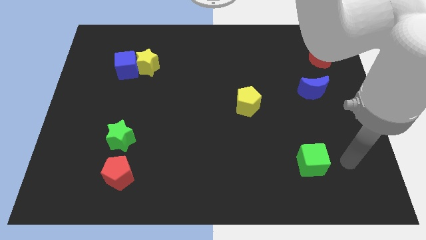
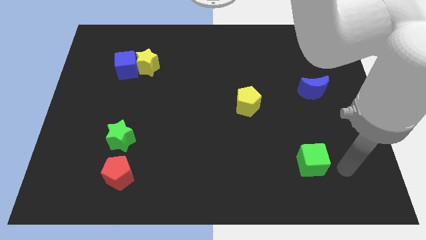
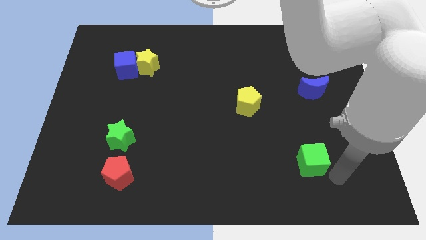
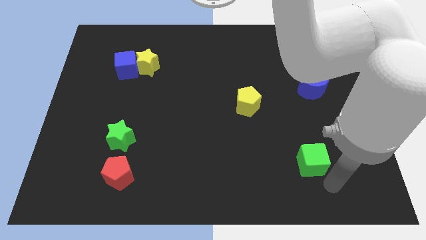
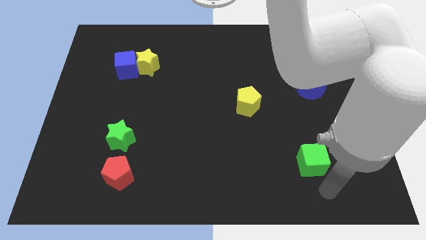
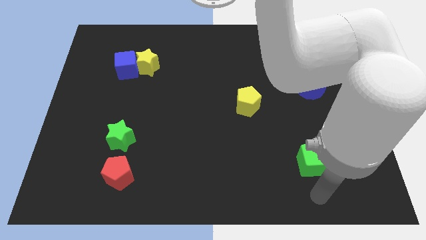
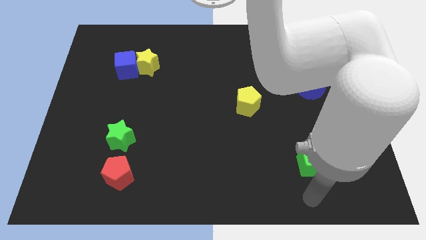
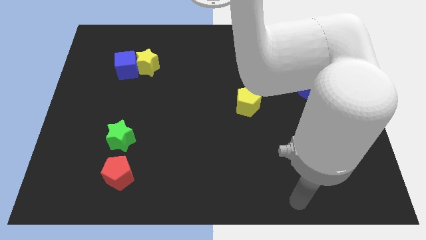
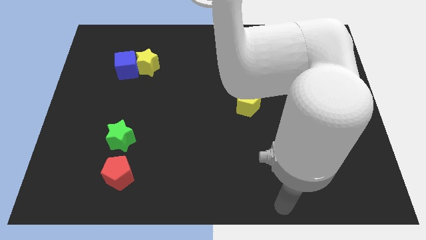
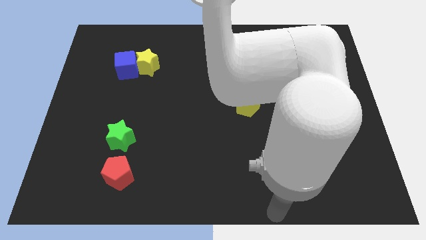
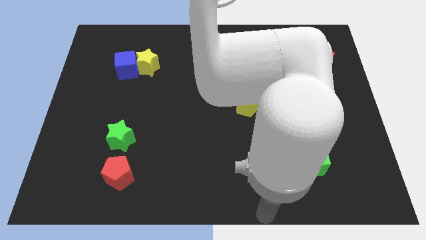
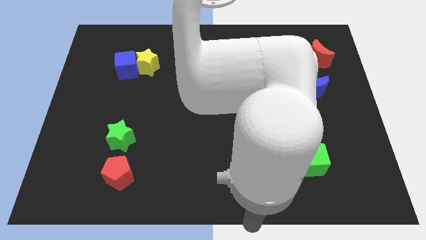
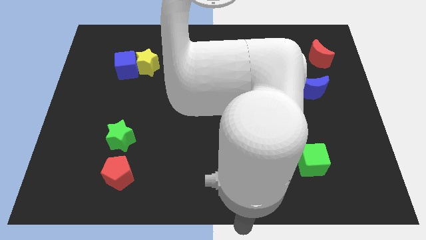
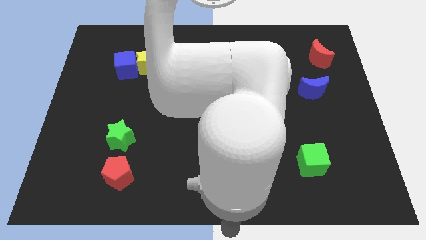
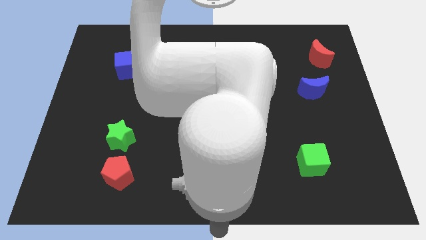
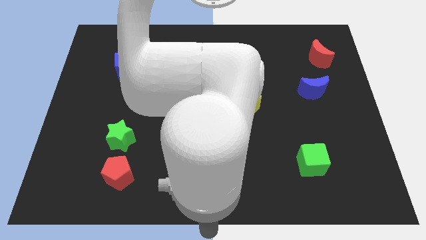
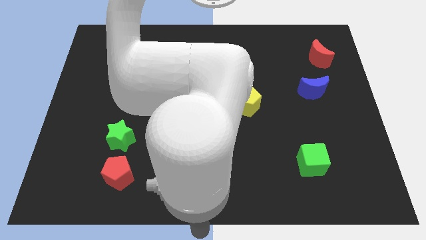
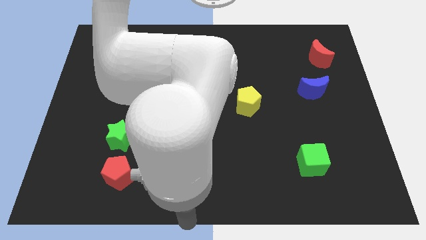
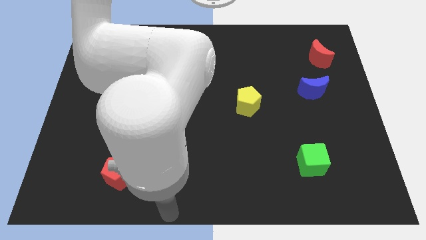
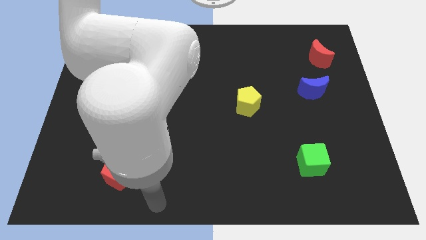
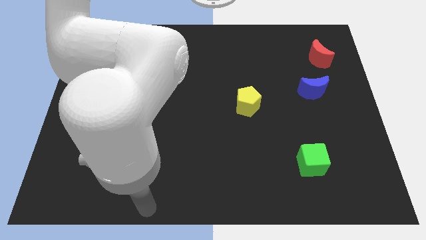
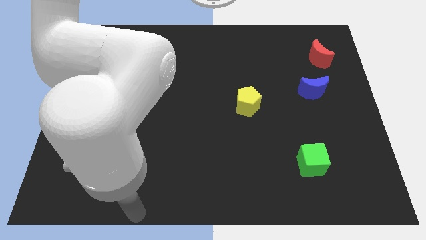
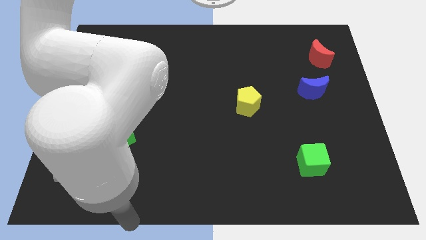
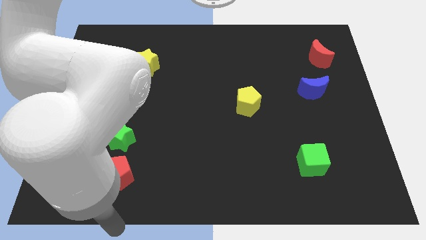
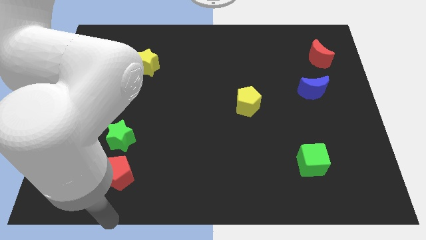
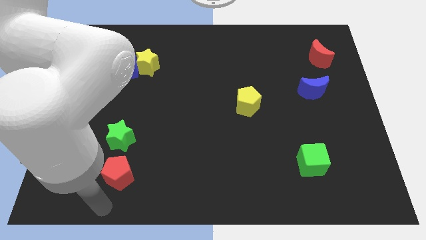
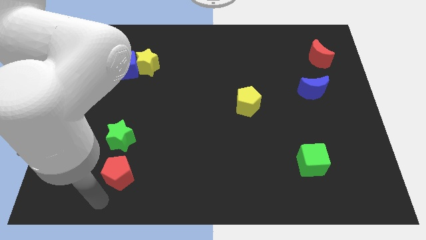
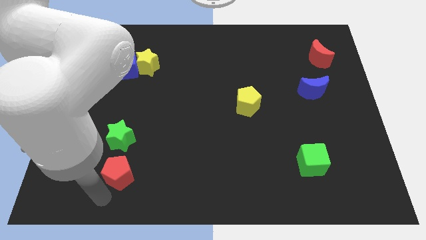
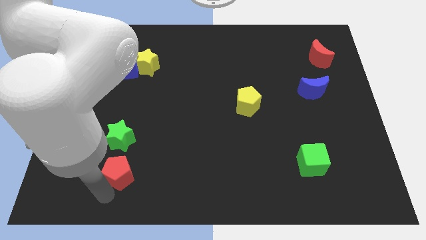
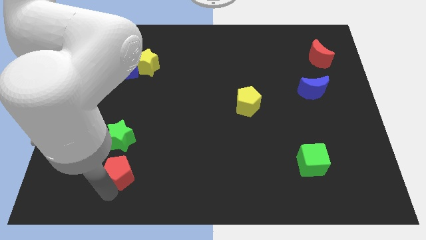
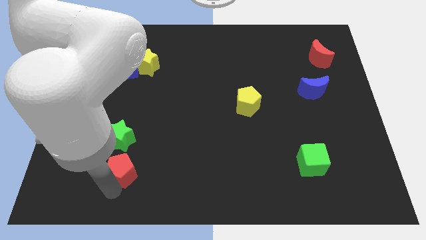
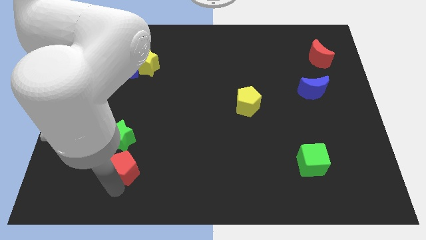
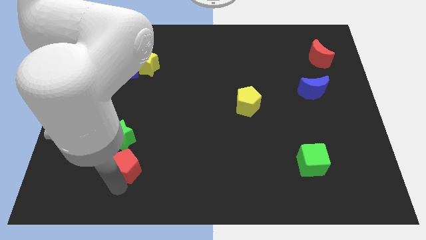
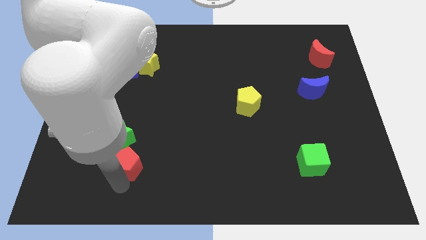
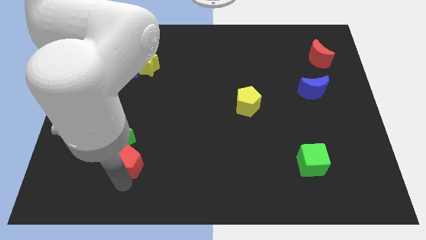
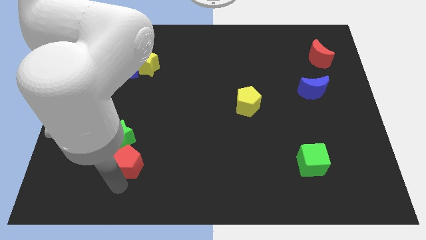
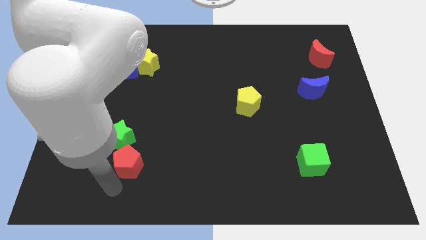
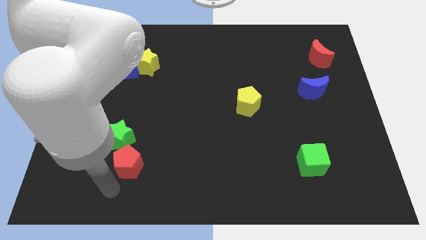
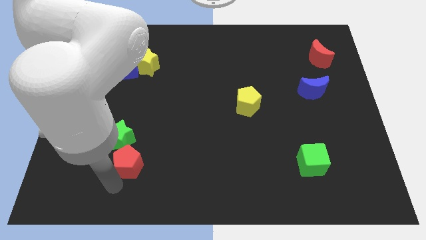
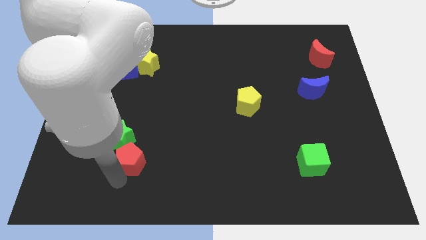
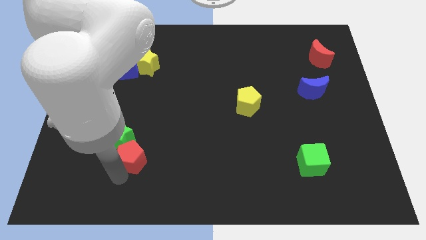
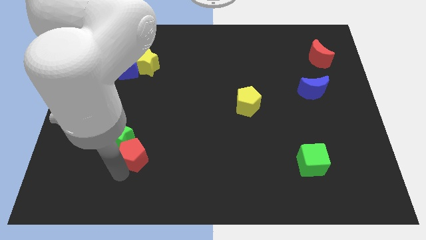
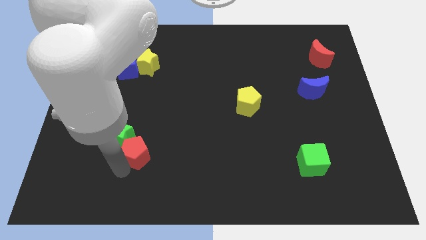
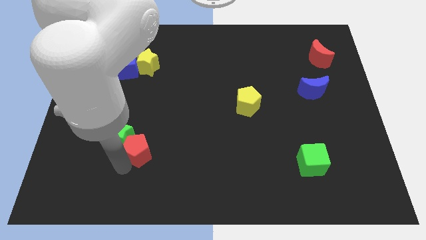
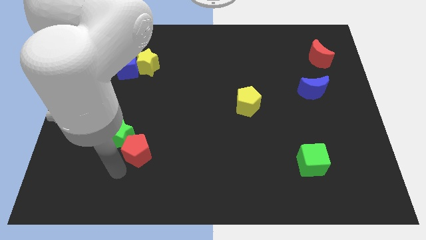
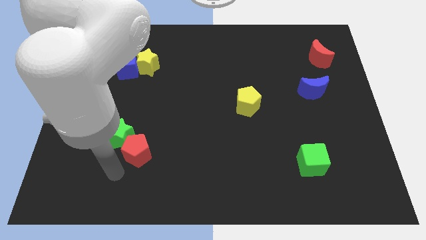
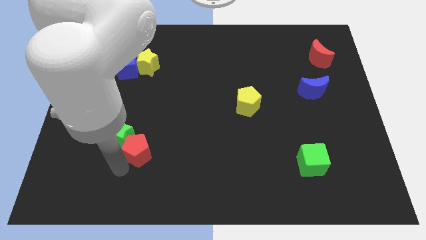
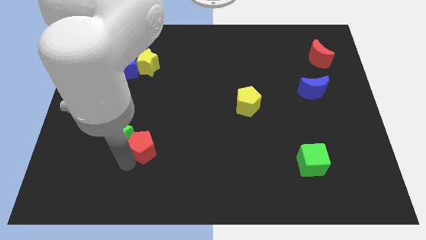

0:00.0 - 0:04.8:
slide the red pentagon a little upwards and then right

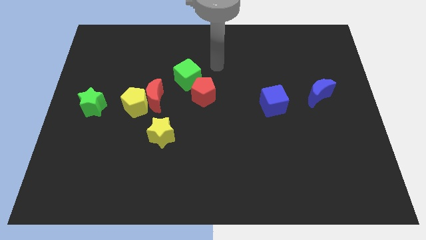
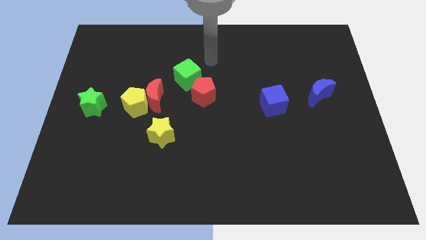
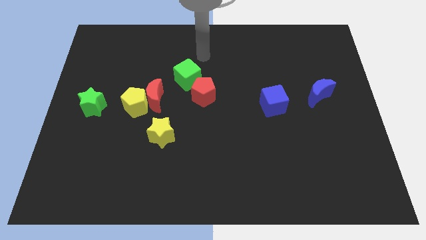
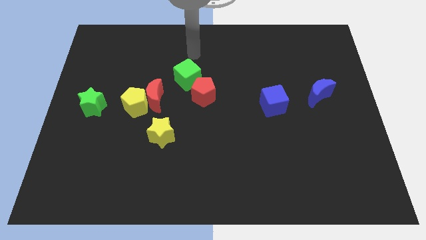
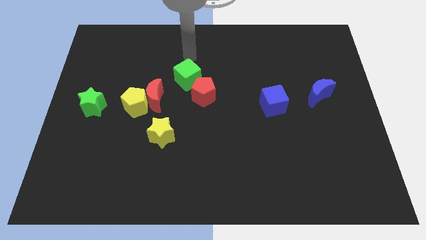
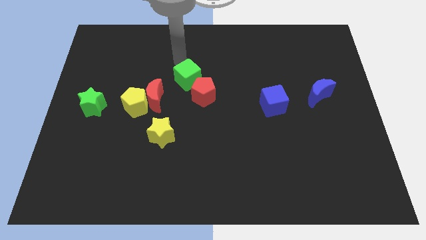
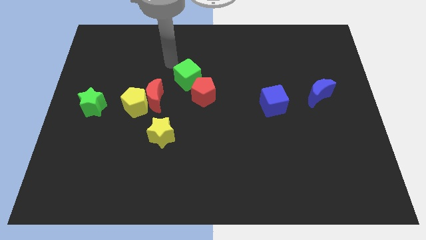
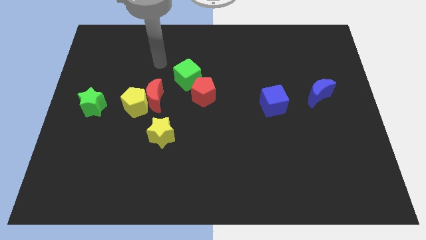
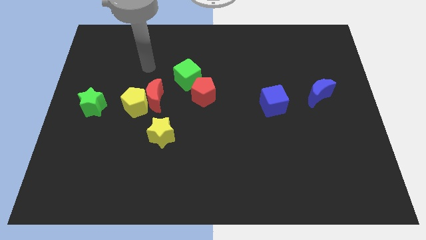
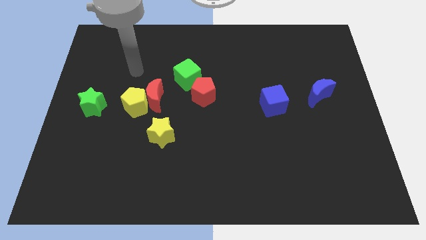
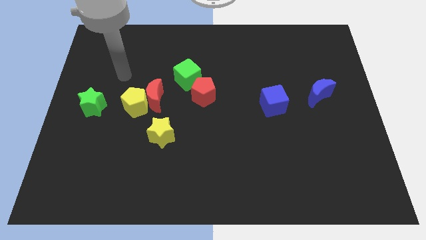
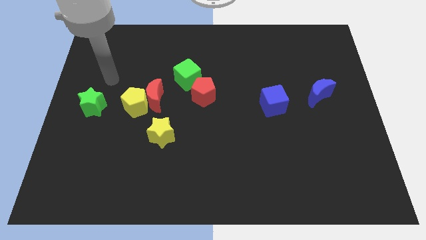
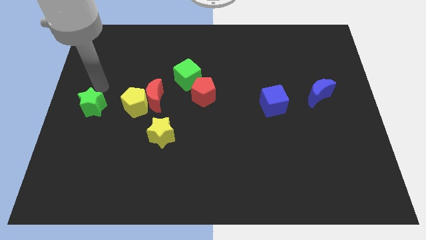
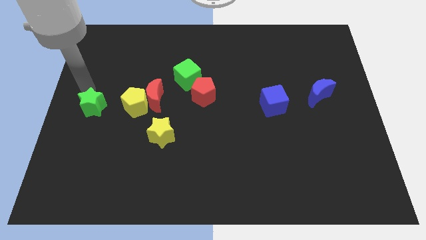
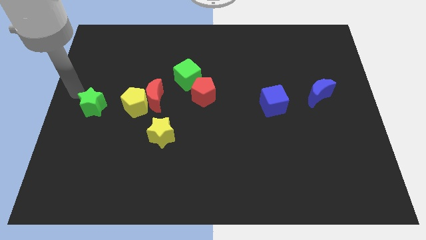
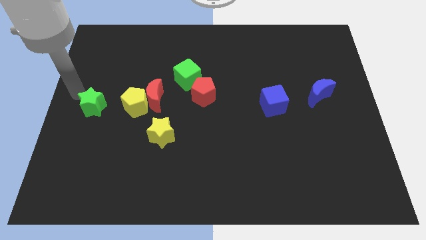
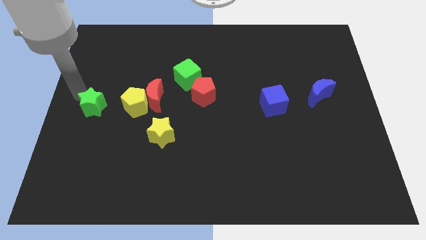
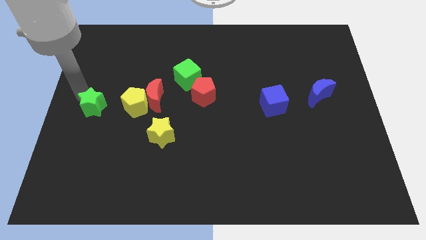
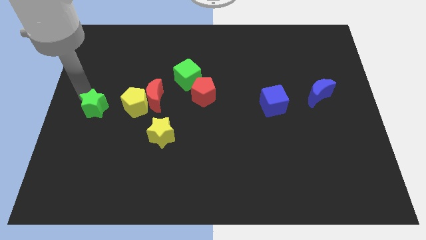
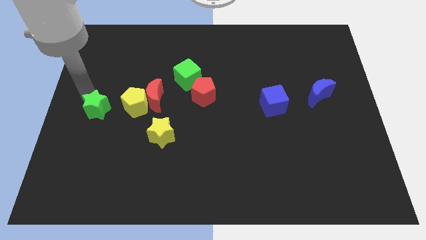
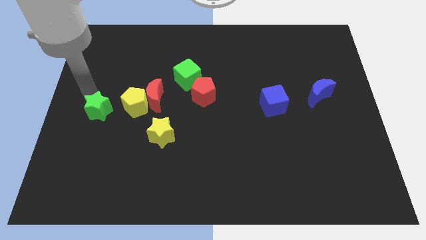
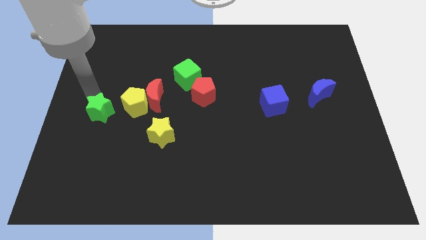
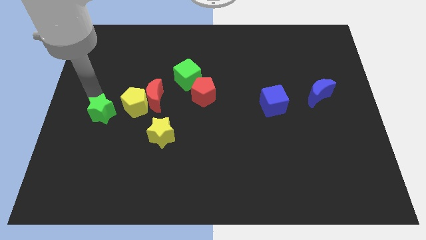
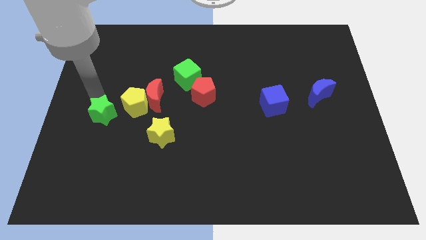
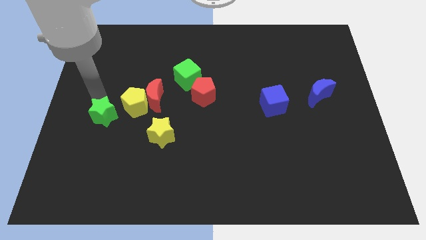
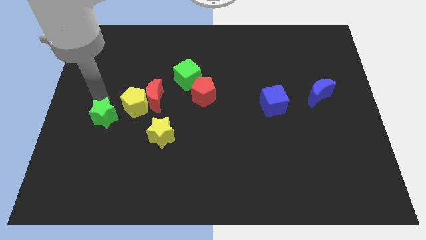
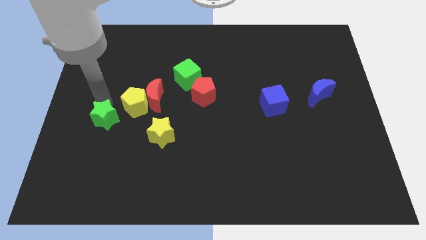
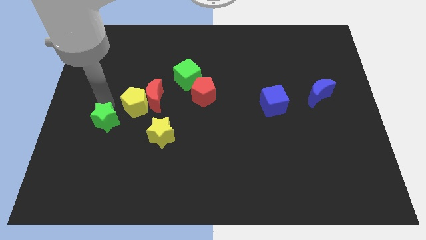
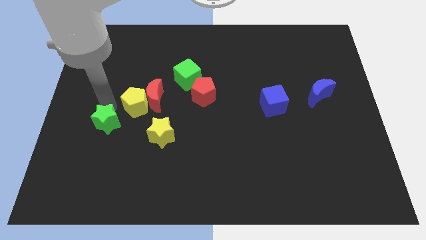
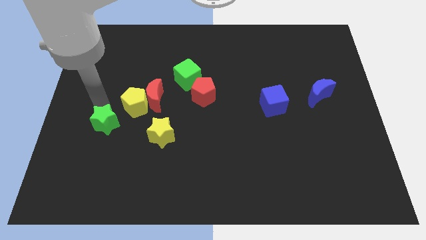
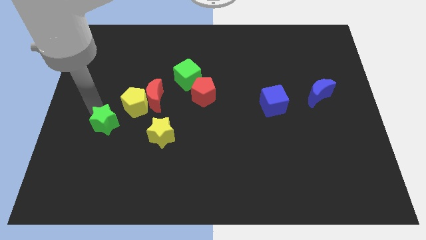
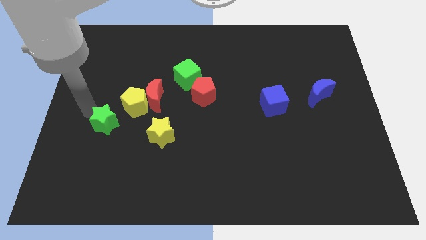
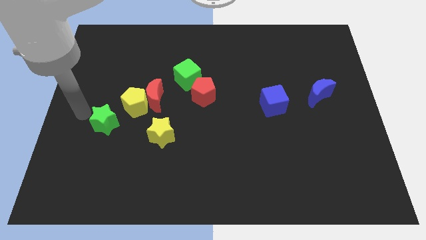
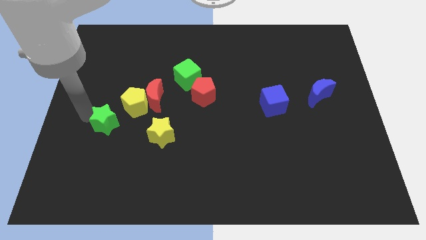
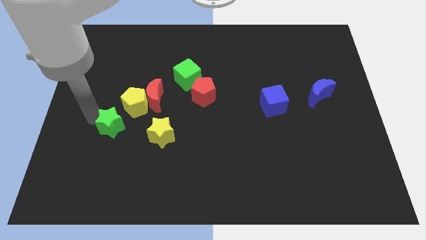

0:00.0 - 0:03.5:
slightly push the green star diagonally down and right
